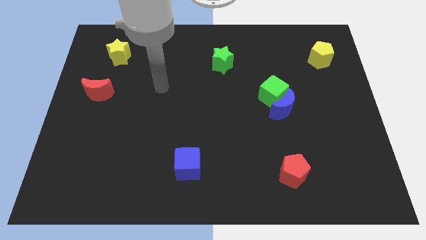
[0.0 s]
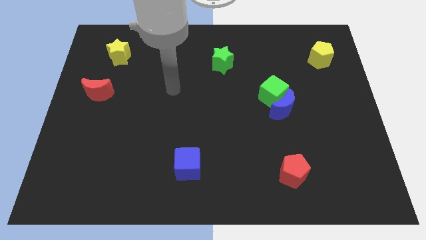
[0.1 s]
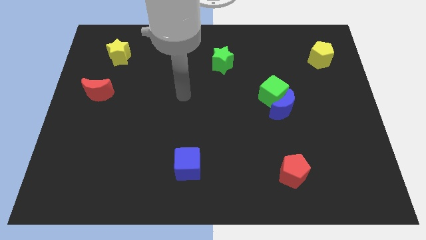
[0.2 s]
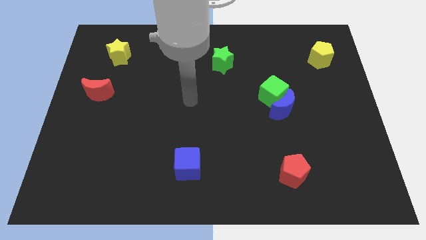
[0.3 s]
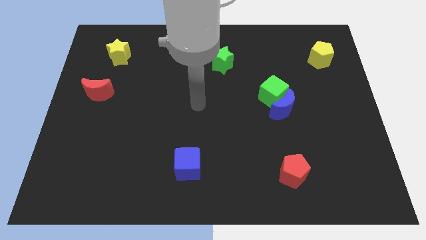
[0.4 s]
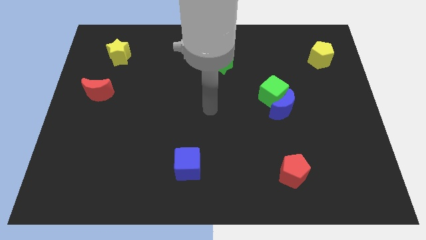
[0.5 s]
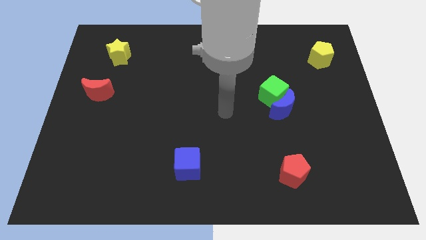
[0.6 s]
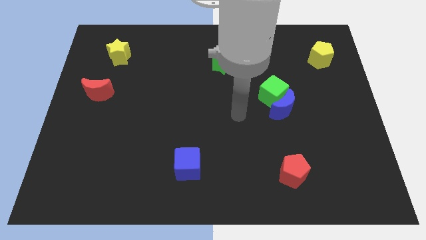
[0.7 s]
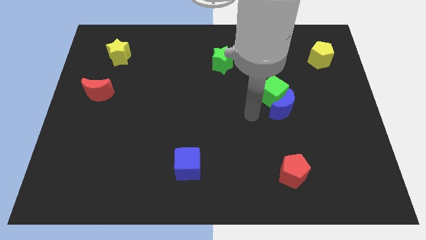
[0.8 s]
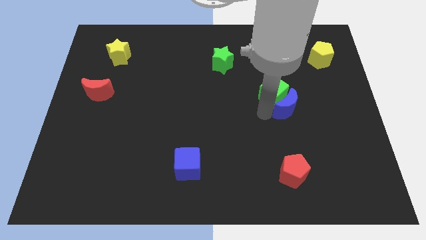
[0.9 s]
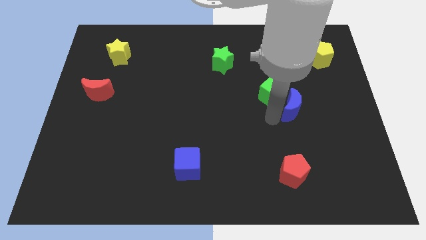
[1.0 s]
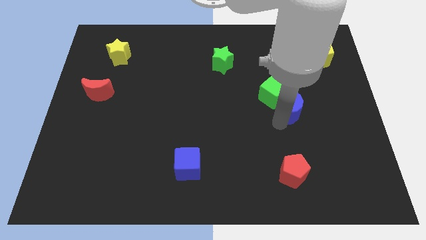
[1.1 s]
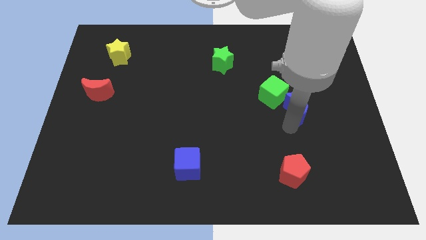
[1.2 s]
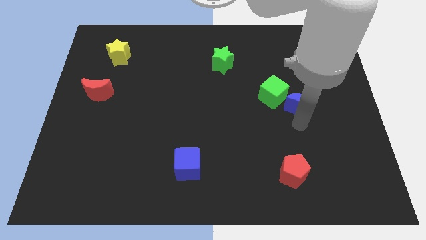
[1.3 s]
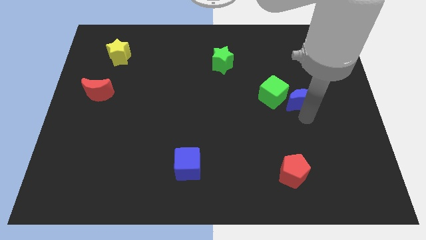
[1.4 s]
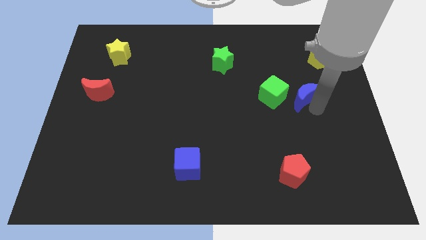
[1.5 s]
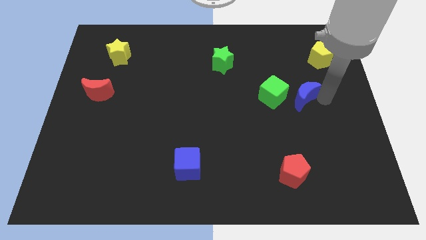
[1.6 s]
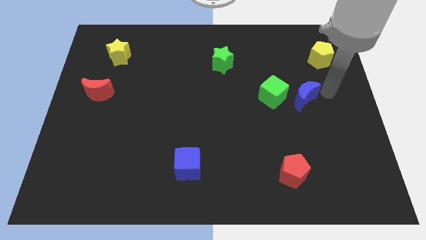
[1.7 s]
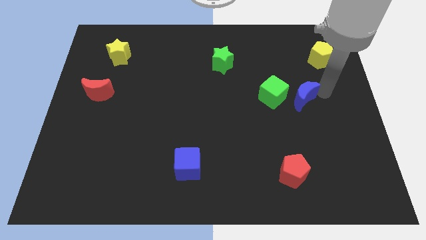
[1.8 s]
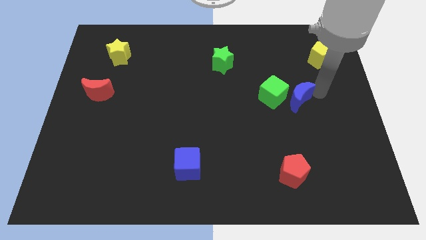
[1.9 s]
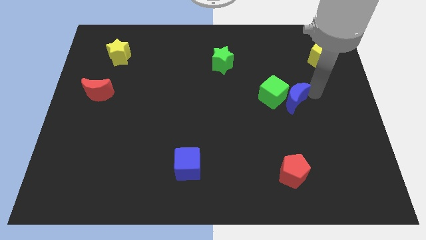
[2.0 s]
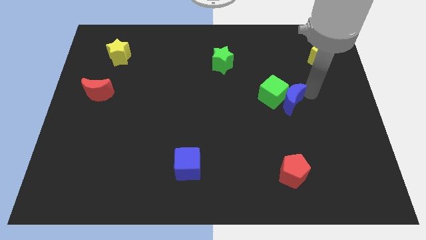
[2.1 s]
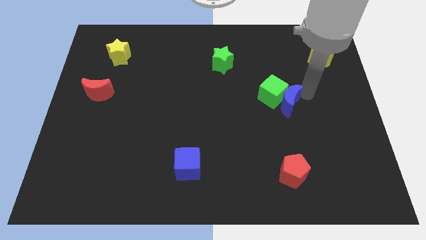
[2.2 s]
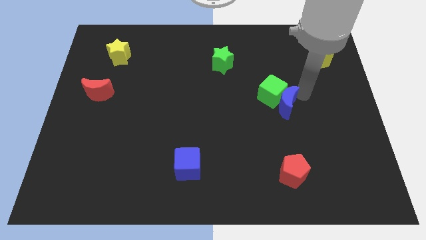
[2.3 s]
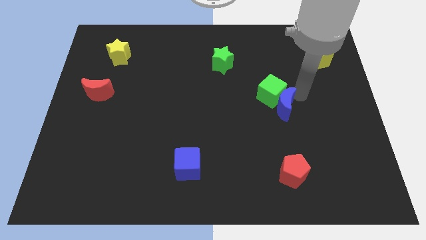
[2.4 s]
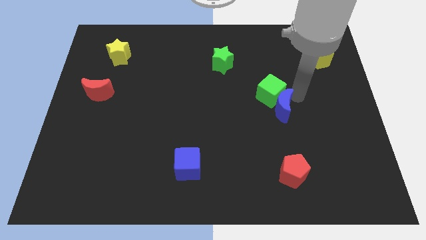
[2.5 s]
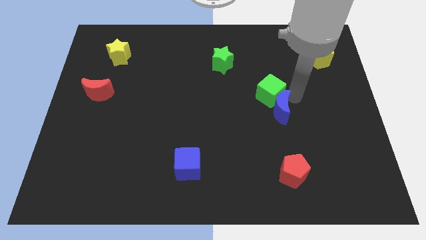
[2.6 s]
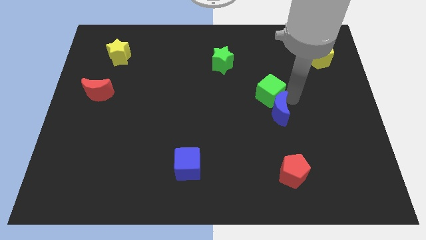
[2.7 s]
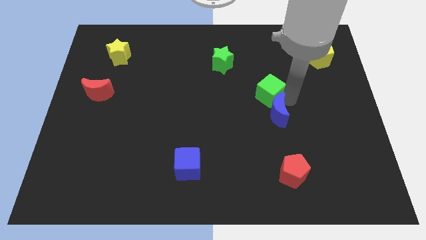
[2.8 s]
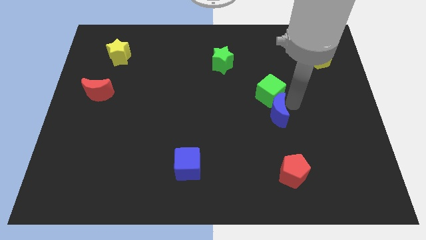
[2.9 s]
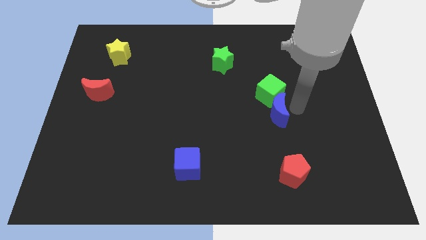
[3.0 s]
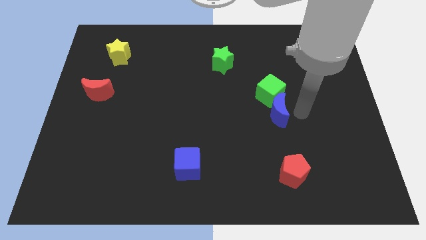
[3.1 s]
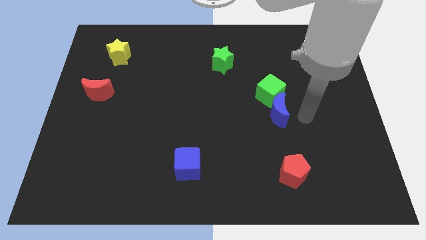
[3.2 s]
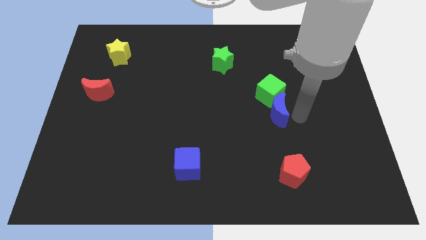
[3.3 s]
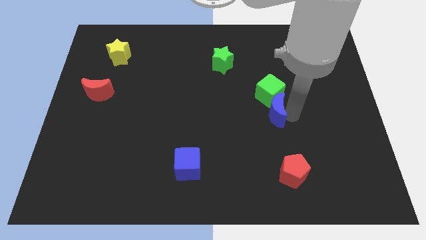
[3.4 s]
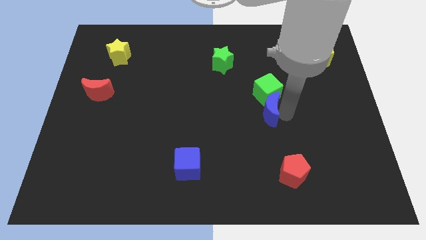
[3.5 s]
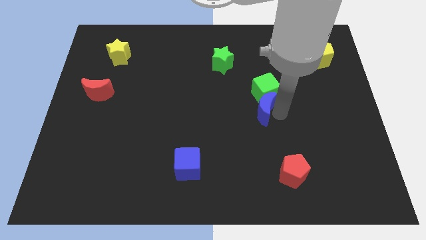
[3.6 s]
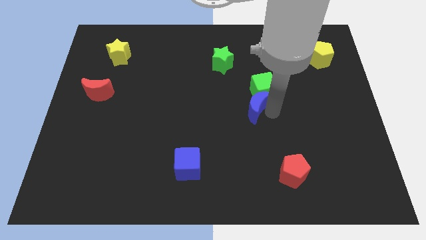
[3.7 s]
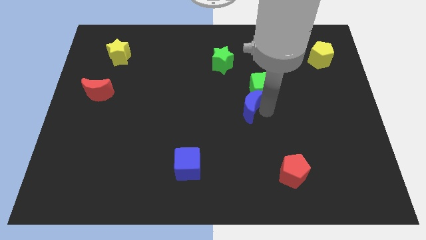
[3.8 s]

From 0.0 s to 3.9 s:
move the blue moon a little left

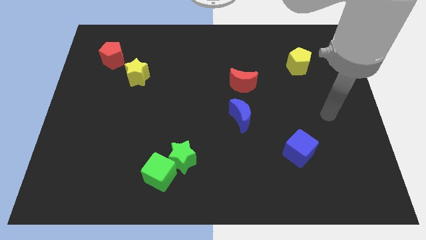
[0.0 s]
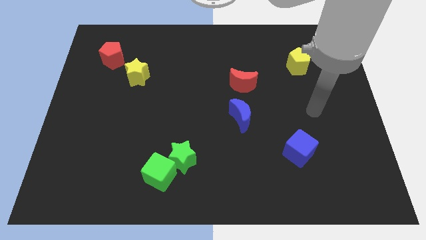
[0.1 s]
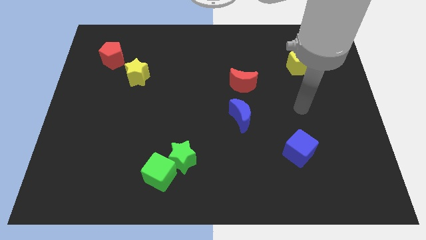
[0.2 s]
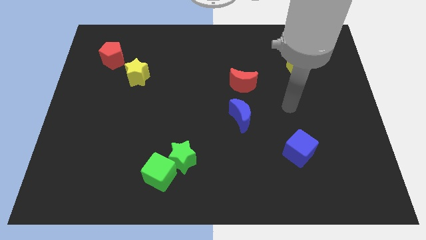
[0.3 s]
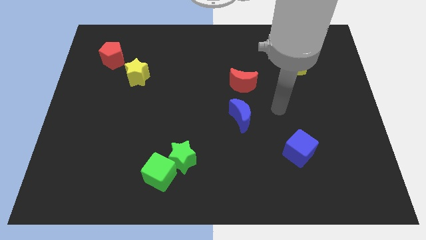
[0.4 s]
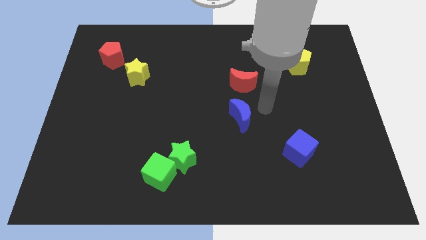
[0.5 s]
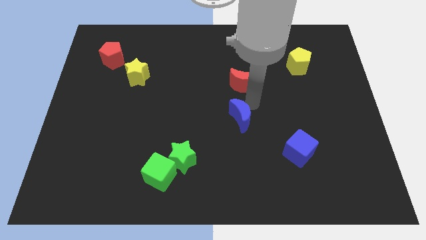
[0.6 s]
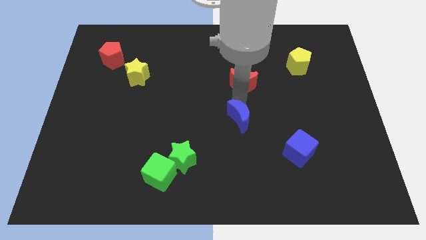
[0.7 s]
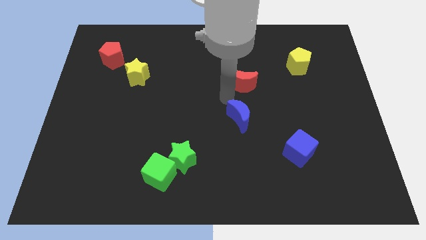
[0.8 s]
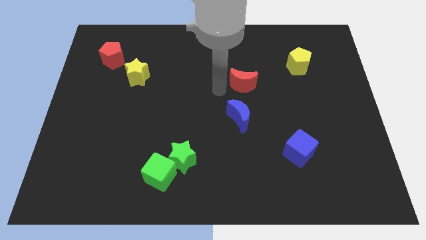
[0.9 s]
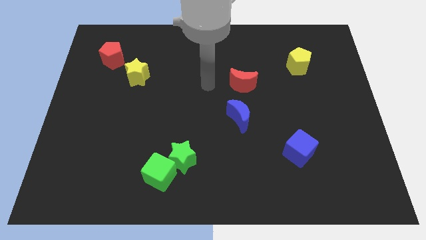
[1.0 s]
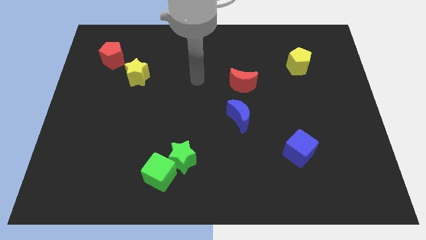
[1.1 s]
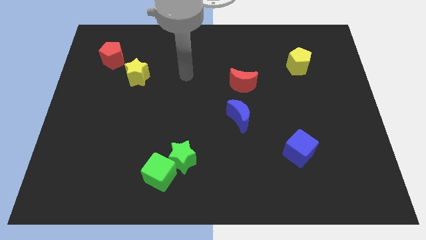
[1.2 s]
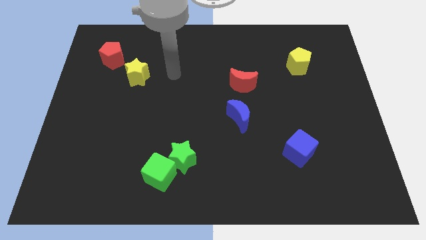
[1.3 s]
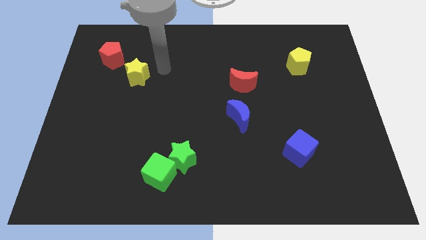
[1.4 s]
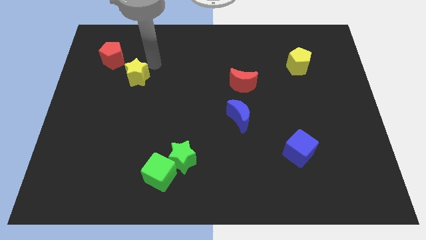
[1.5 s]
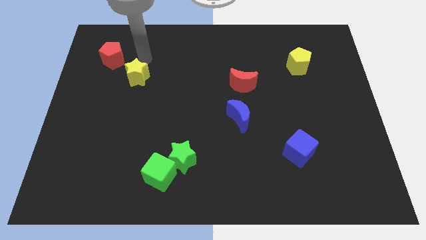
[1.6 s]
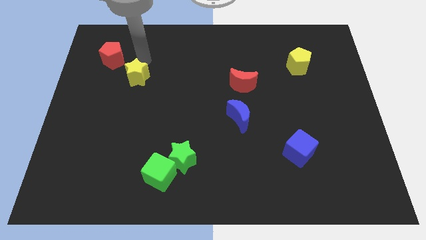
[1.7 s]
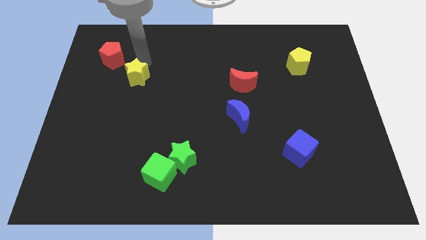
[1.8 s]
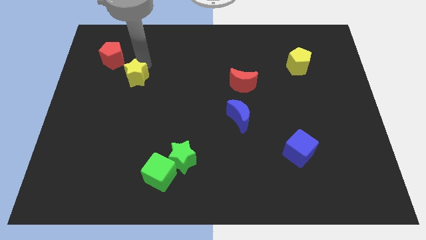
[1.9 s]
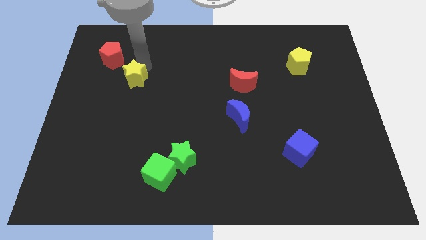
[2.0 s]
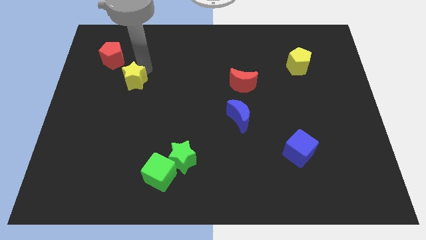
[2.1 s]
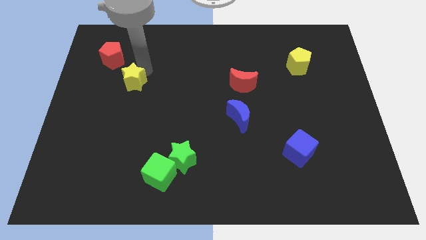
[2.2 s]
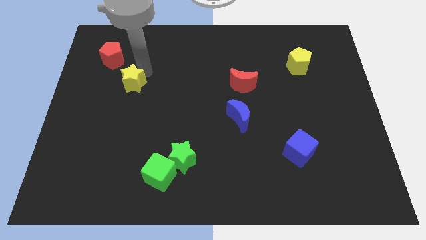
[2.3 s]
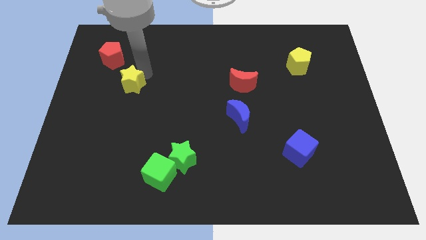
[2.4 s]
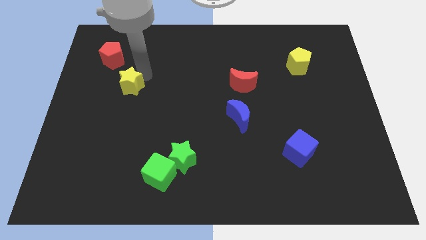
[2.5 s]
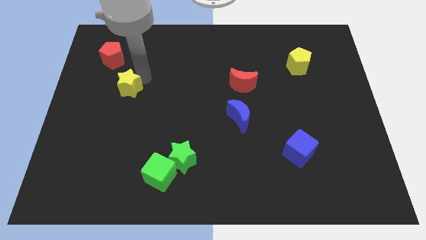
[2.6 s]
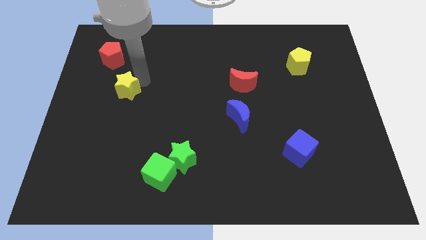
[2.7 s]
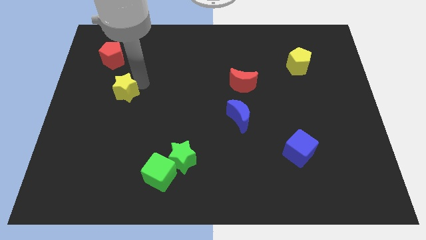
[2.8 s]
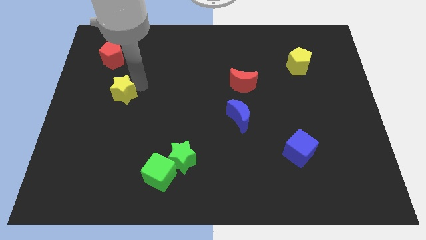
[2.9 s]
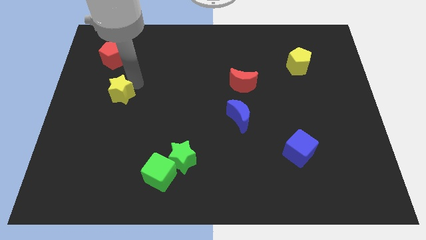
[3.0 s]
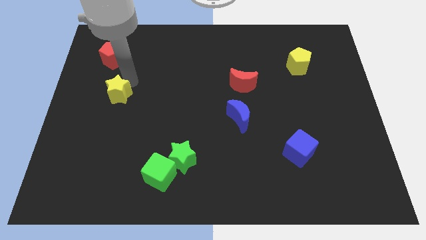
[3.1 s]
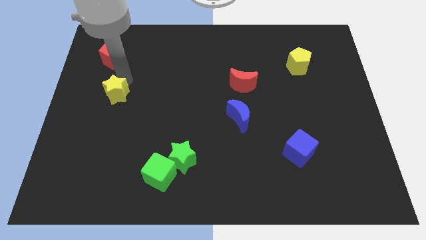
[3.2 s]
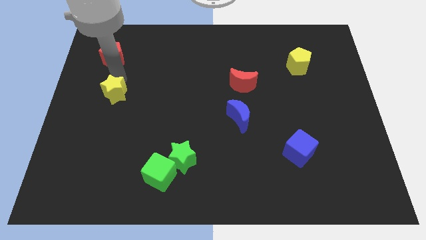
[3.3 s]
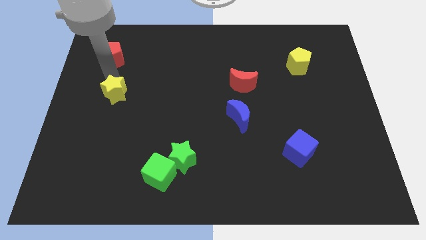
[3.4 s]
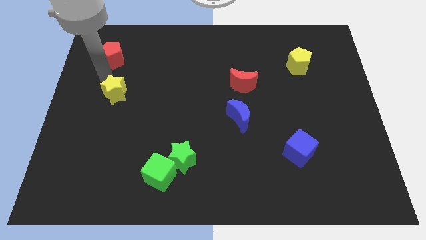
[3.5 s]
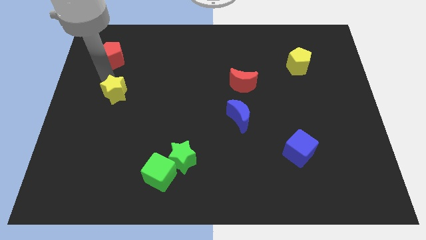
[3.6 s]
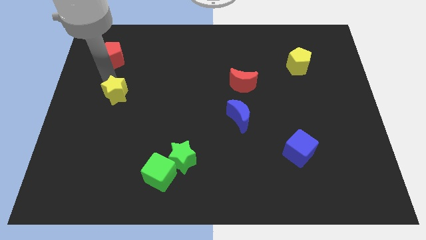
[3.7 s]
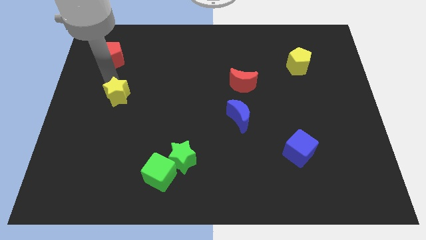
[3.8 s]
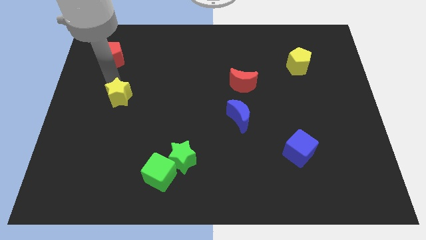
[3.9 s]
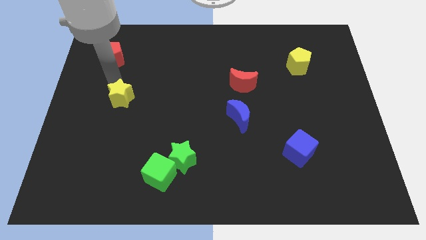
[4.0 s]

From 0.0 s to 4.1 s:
slide the yellow star somewhat downwards
